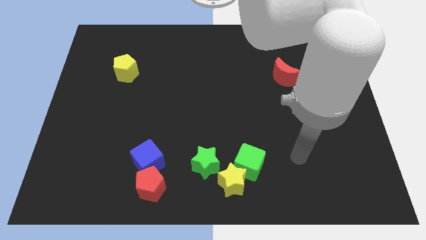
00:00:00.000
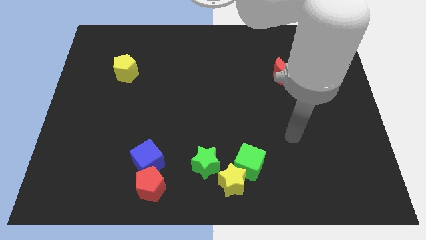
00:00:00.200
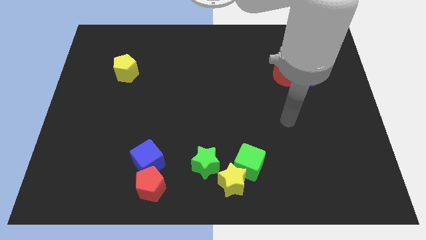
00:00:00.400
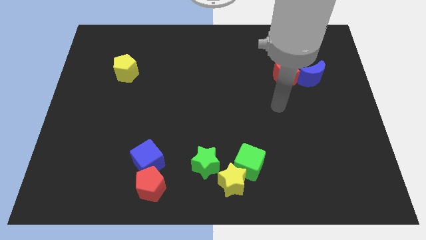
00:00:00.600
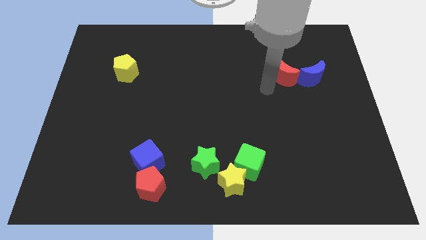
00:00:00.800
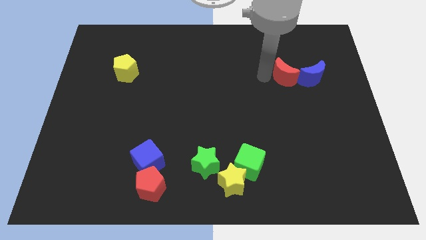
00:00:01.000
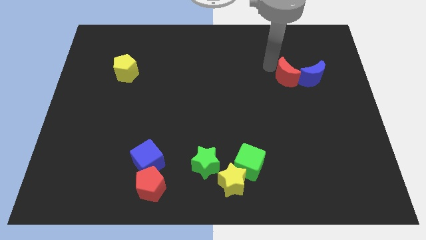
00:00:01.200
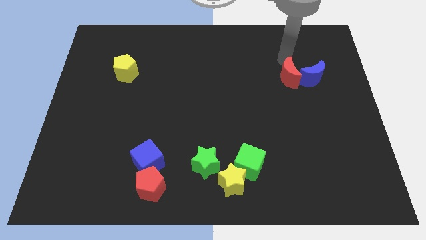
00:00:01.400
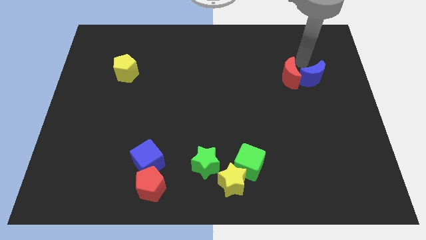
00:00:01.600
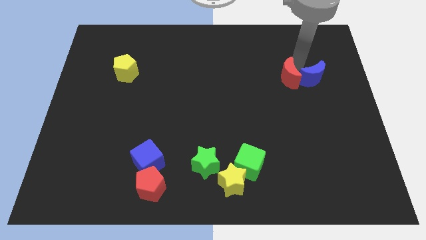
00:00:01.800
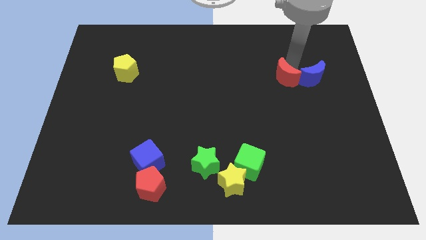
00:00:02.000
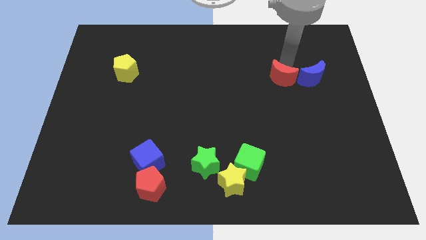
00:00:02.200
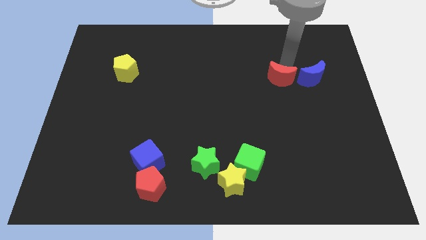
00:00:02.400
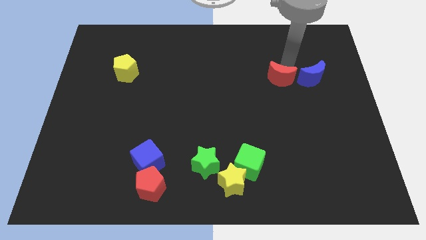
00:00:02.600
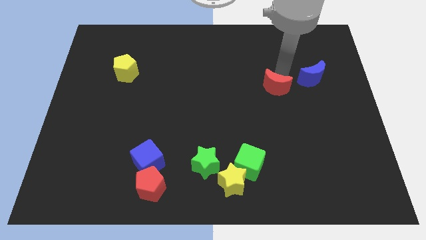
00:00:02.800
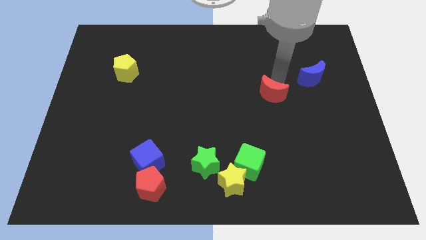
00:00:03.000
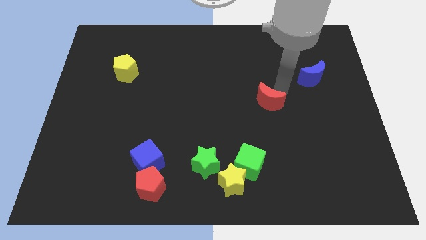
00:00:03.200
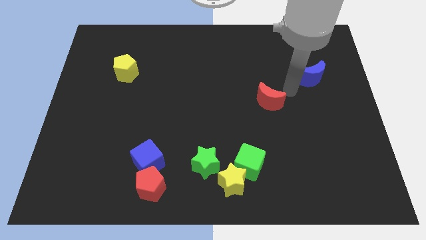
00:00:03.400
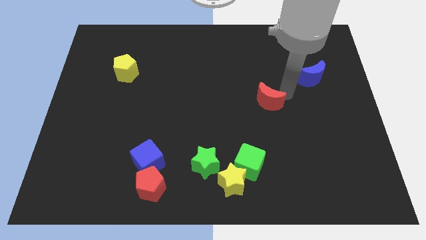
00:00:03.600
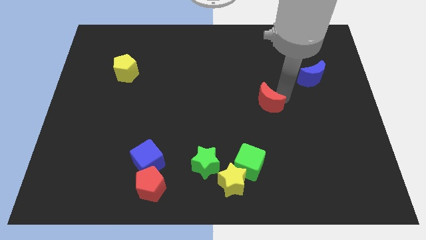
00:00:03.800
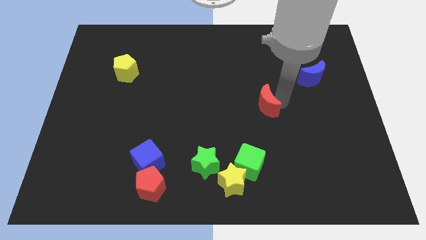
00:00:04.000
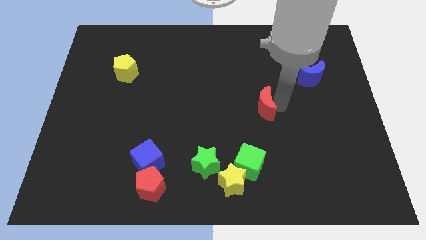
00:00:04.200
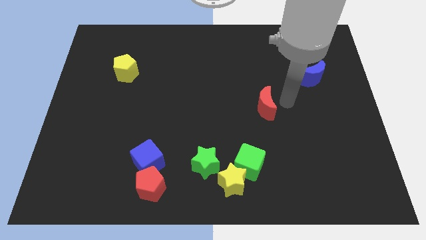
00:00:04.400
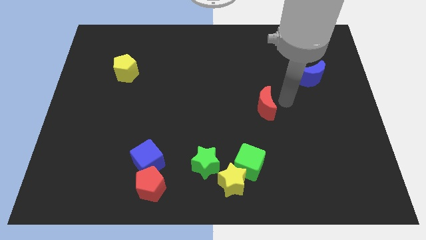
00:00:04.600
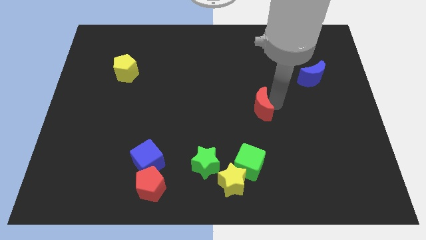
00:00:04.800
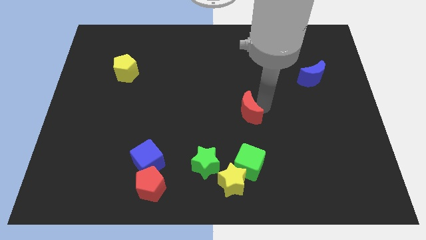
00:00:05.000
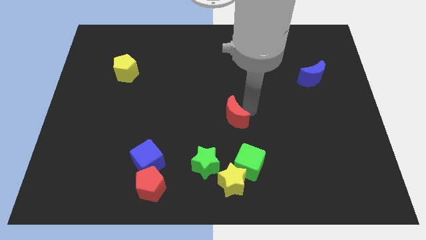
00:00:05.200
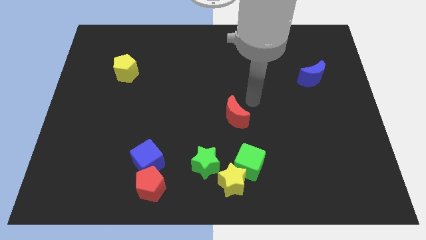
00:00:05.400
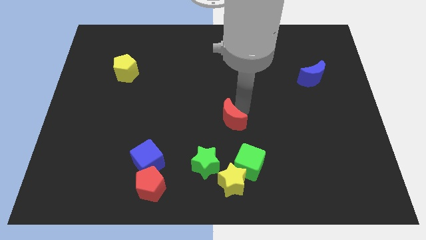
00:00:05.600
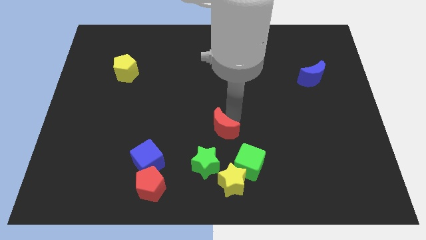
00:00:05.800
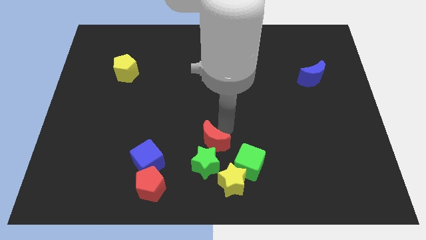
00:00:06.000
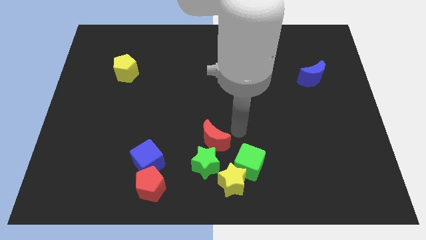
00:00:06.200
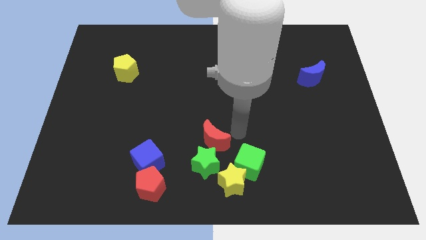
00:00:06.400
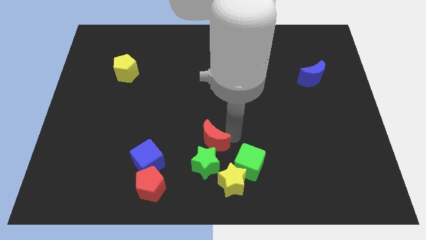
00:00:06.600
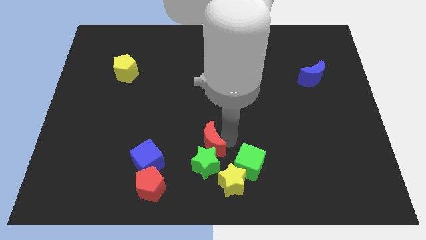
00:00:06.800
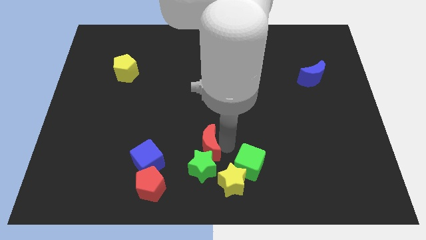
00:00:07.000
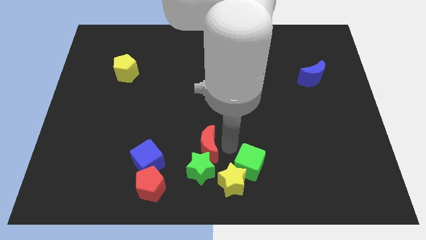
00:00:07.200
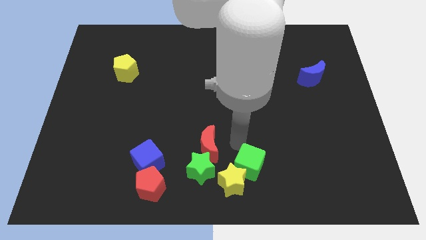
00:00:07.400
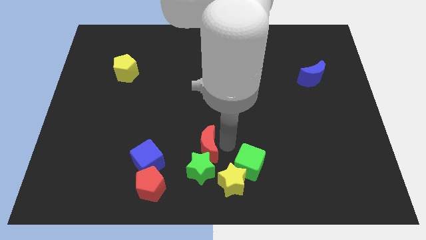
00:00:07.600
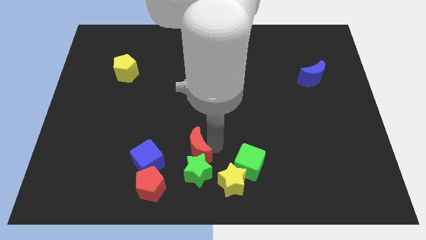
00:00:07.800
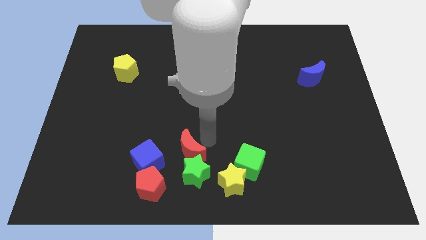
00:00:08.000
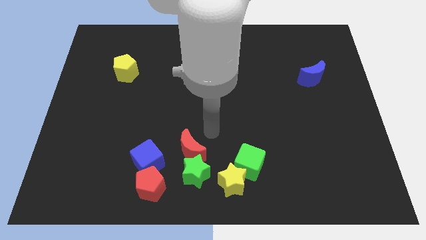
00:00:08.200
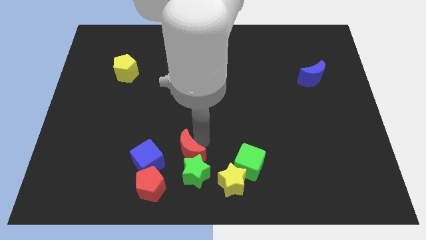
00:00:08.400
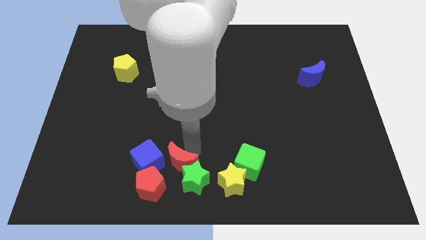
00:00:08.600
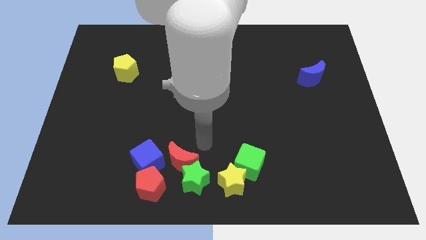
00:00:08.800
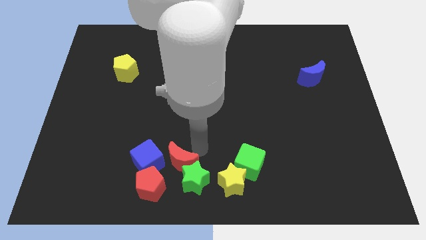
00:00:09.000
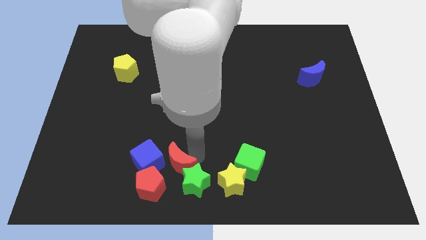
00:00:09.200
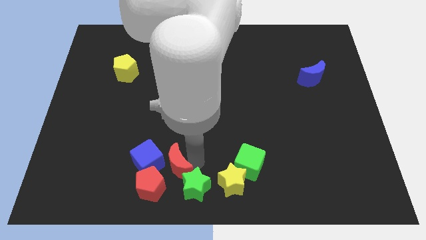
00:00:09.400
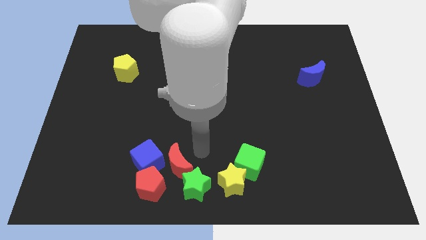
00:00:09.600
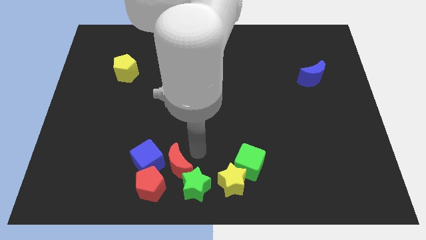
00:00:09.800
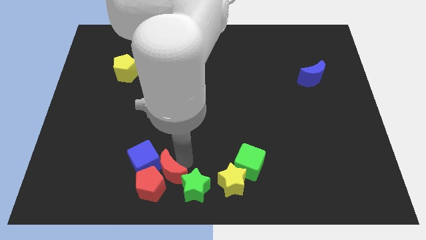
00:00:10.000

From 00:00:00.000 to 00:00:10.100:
push the red moon to the red pentagon

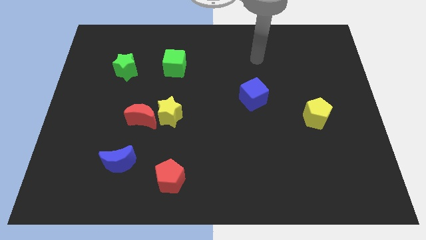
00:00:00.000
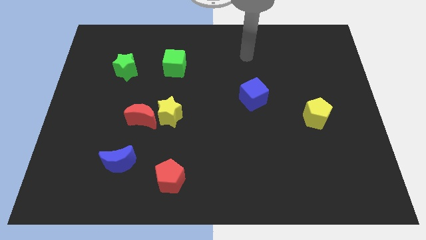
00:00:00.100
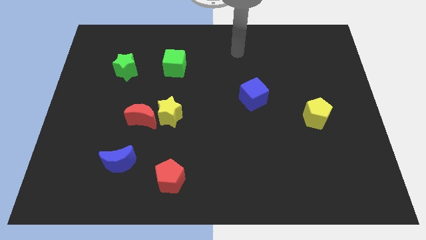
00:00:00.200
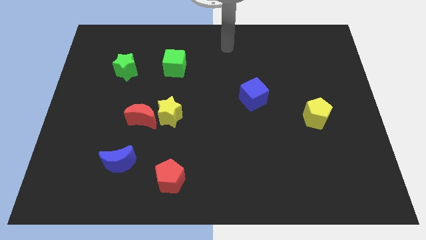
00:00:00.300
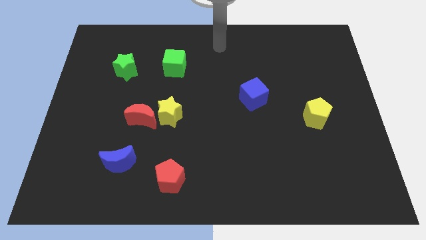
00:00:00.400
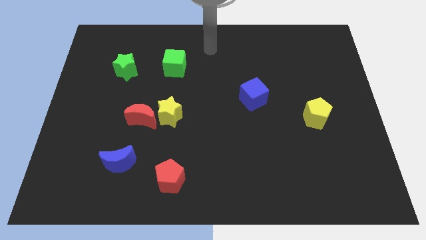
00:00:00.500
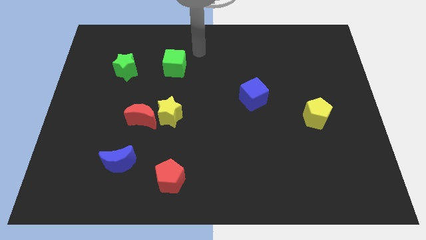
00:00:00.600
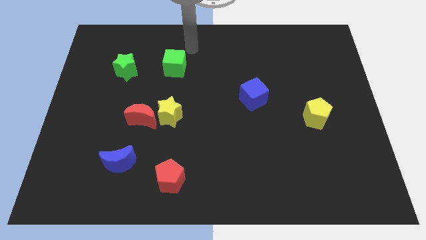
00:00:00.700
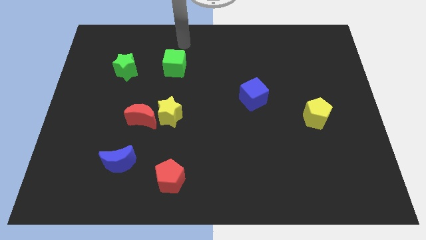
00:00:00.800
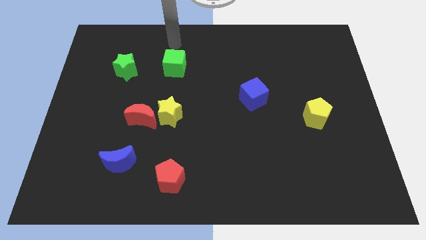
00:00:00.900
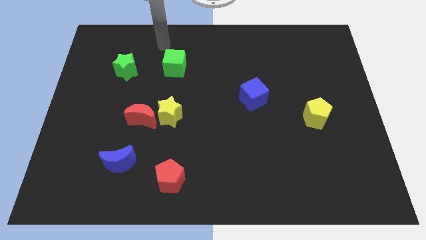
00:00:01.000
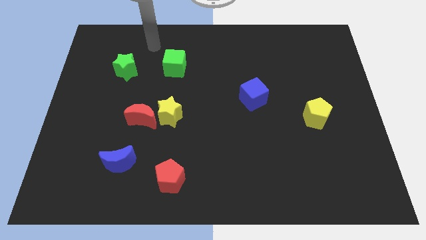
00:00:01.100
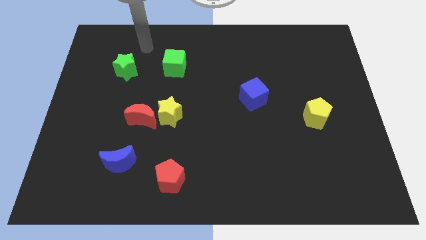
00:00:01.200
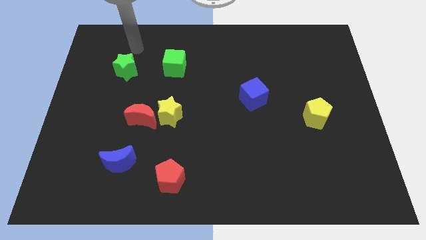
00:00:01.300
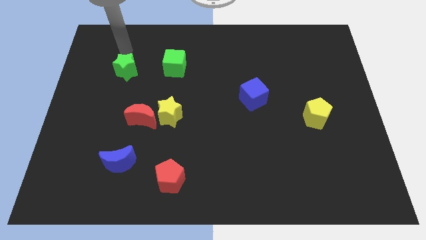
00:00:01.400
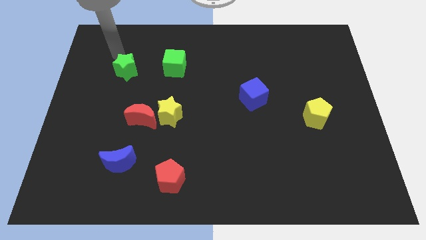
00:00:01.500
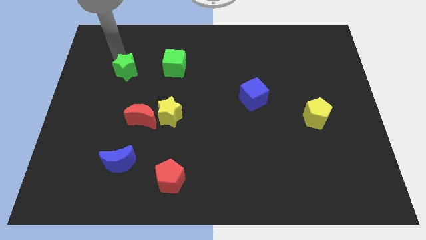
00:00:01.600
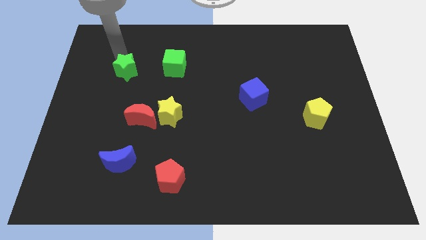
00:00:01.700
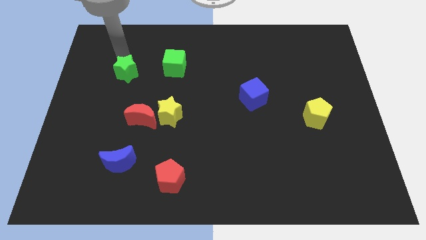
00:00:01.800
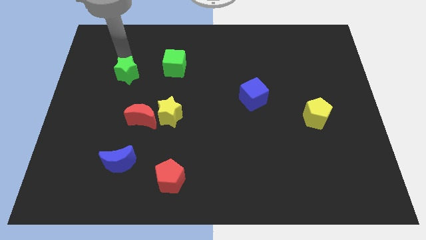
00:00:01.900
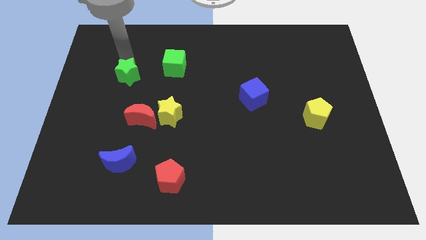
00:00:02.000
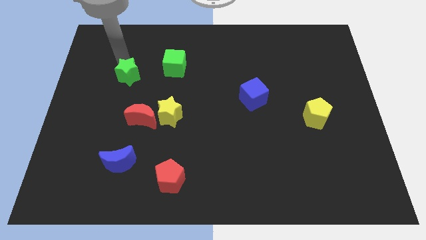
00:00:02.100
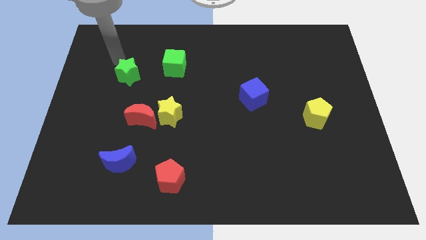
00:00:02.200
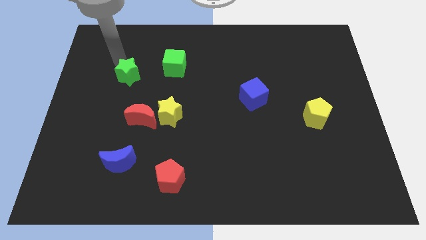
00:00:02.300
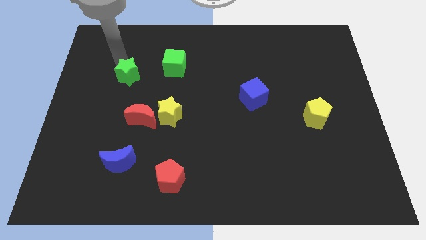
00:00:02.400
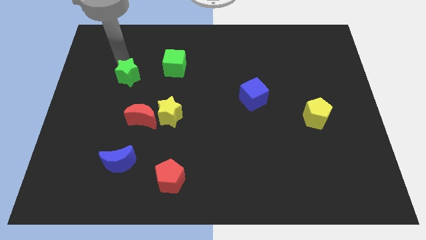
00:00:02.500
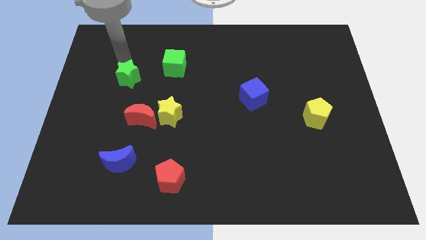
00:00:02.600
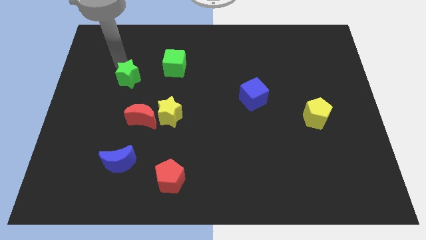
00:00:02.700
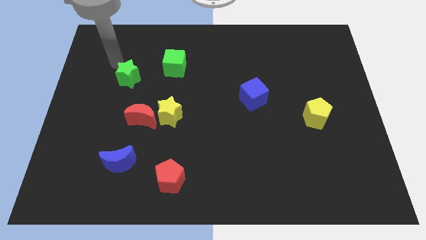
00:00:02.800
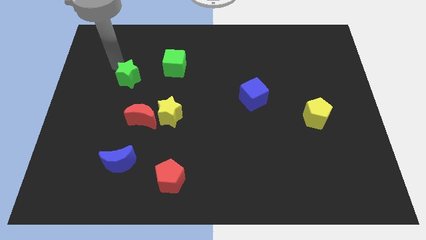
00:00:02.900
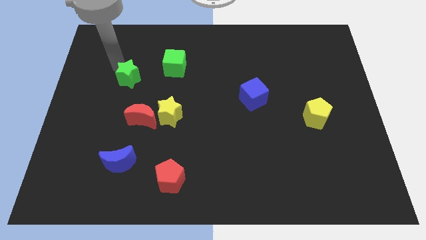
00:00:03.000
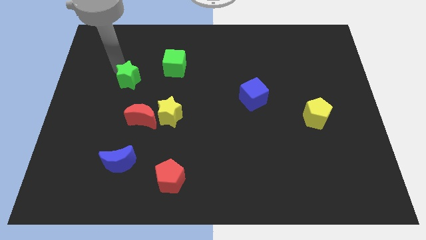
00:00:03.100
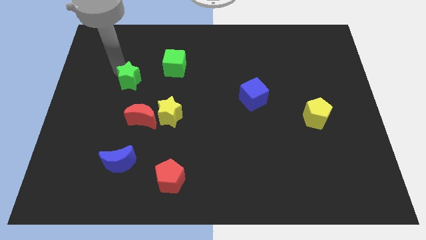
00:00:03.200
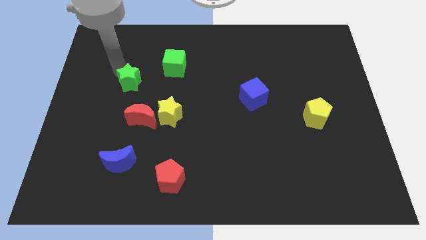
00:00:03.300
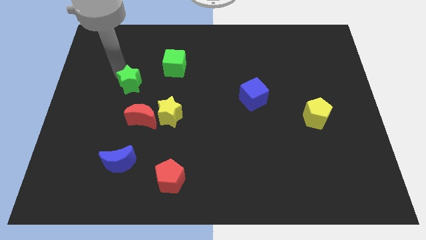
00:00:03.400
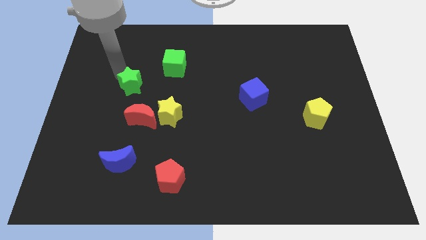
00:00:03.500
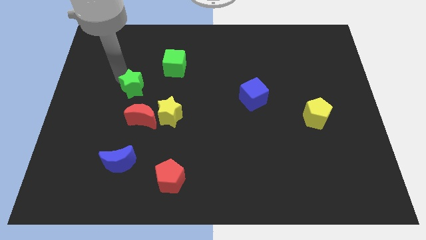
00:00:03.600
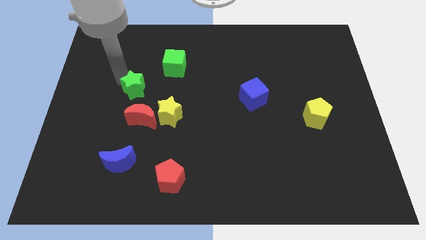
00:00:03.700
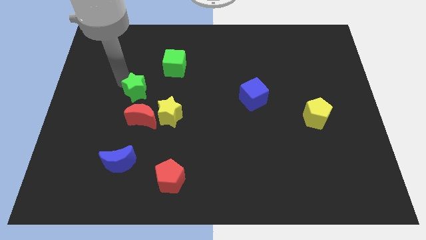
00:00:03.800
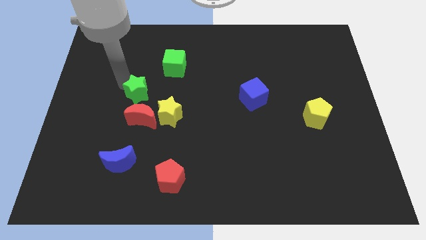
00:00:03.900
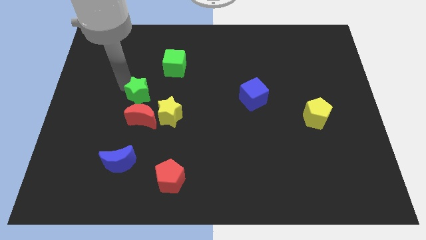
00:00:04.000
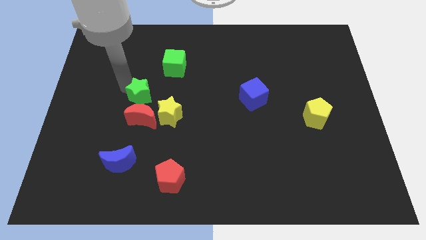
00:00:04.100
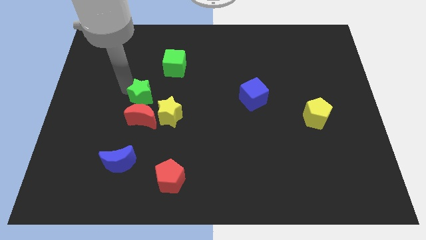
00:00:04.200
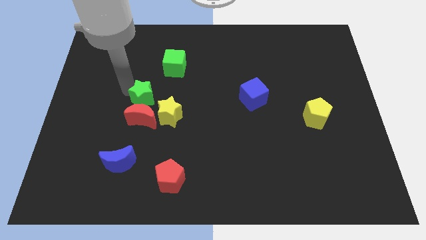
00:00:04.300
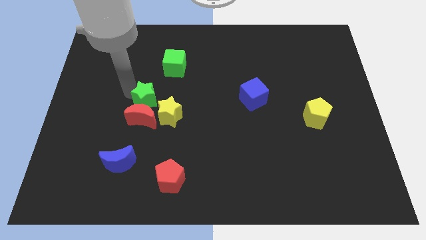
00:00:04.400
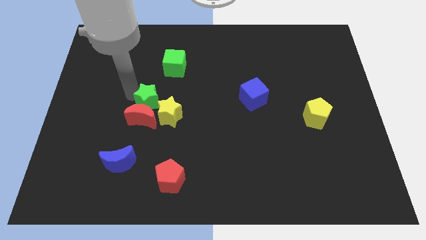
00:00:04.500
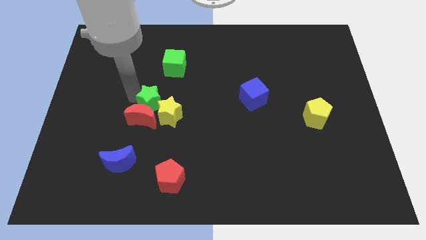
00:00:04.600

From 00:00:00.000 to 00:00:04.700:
put the green star next to the yellow star
